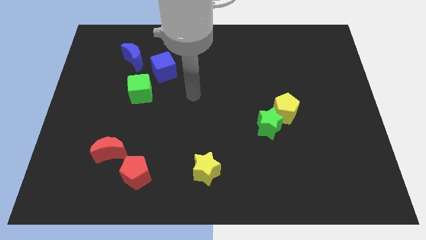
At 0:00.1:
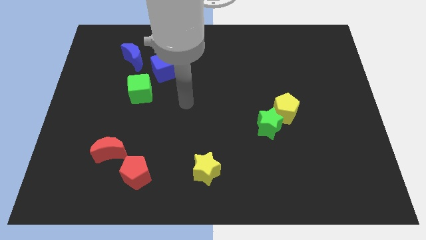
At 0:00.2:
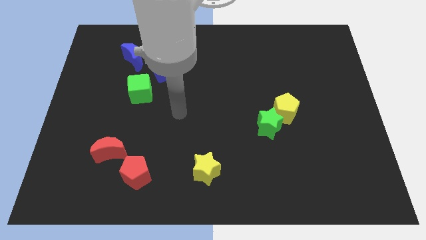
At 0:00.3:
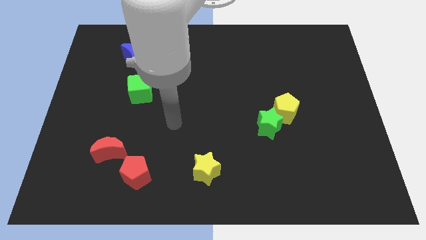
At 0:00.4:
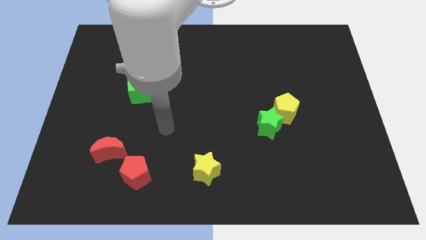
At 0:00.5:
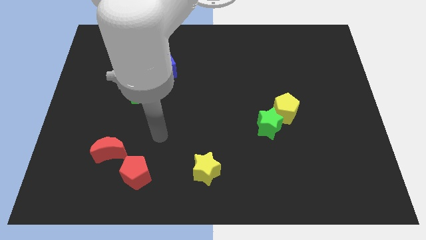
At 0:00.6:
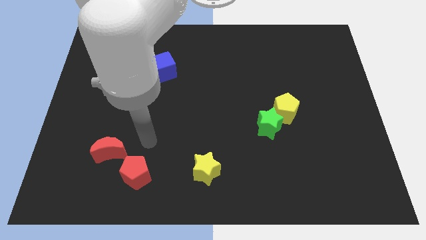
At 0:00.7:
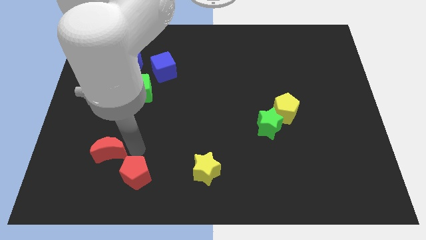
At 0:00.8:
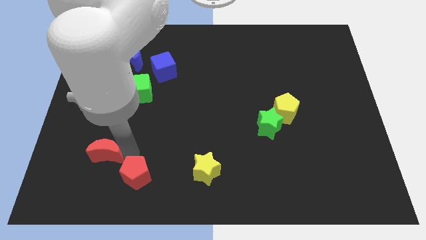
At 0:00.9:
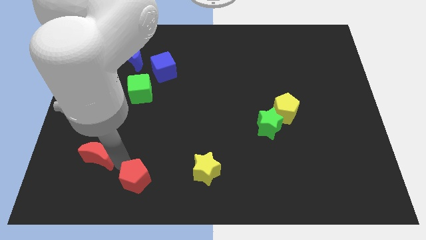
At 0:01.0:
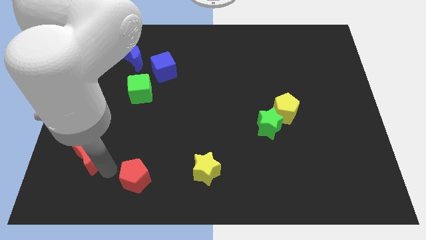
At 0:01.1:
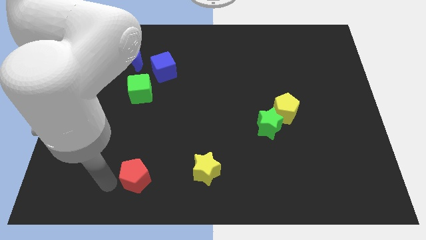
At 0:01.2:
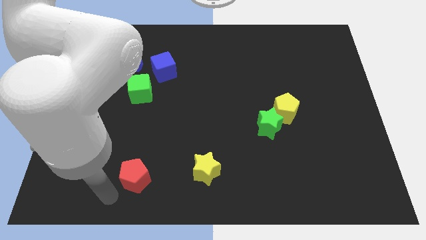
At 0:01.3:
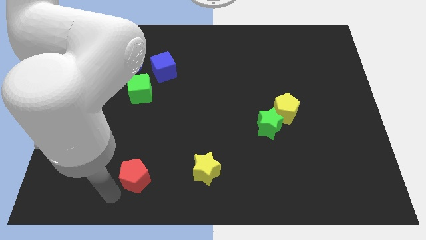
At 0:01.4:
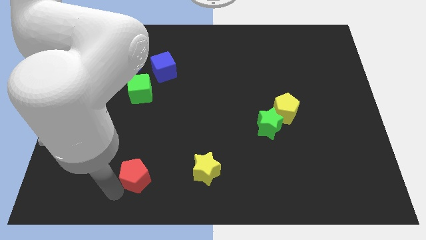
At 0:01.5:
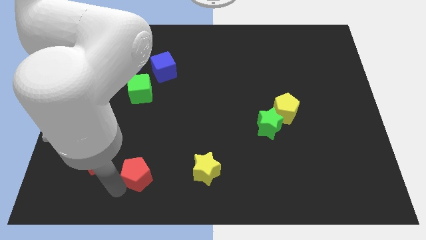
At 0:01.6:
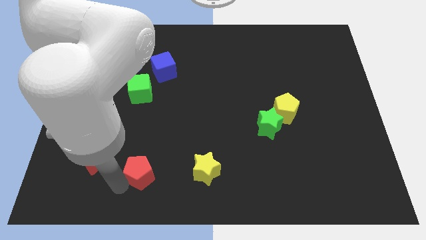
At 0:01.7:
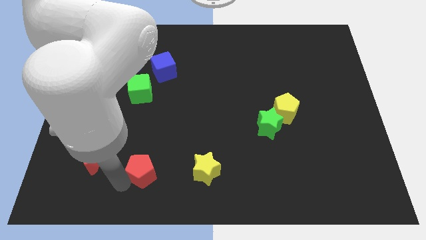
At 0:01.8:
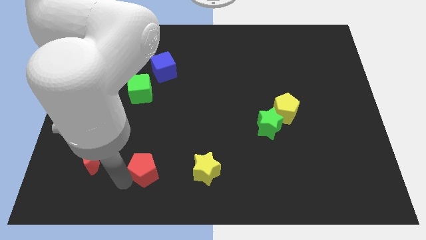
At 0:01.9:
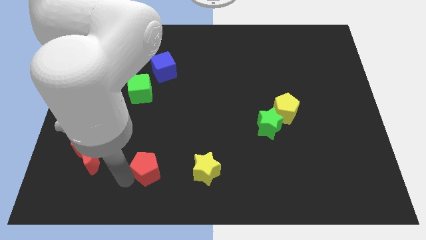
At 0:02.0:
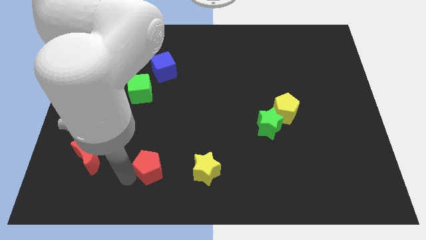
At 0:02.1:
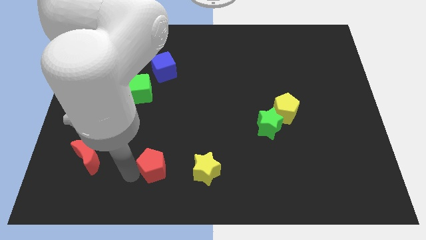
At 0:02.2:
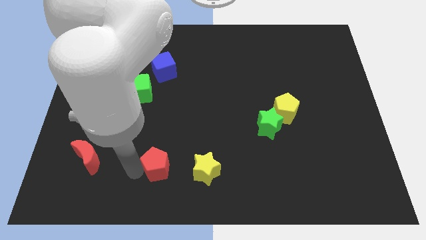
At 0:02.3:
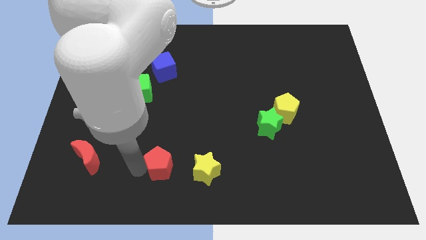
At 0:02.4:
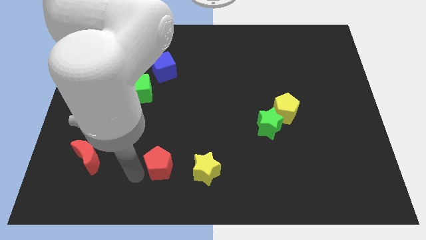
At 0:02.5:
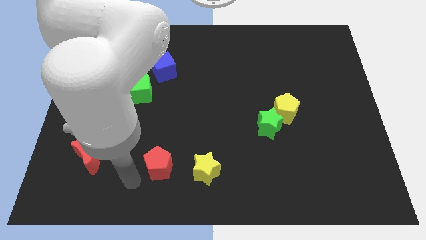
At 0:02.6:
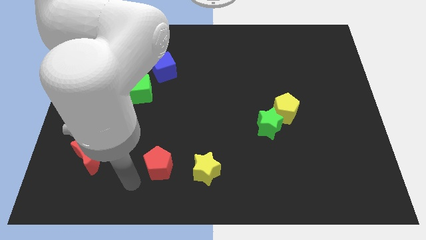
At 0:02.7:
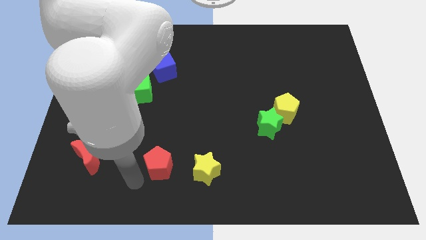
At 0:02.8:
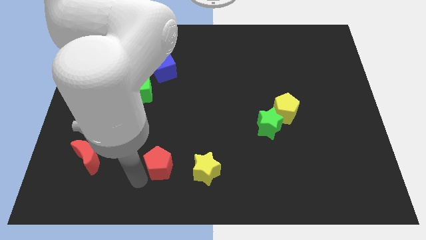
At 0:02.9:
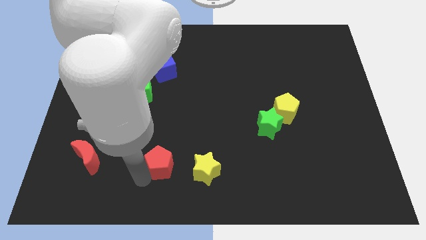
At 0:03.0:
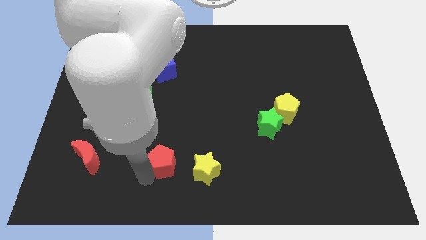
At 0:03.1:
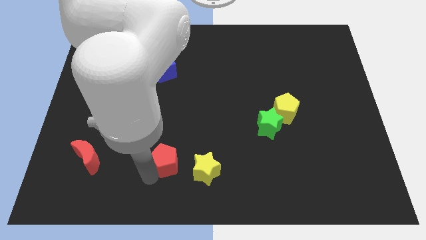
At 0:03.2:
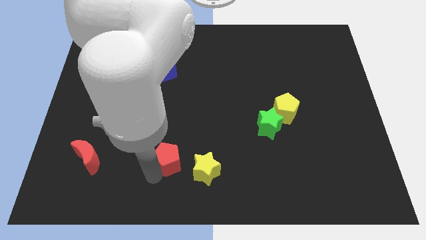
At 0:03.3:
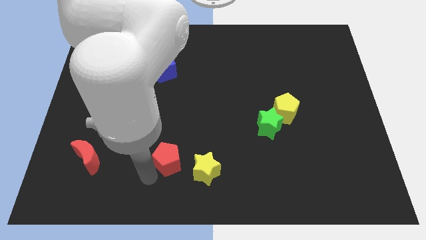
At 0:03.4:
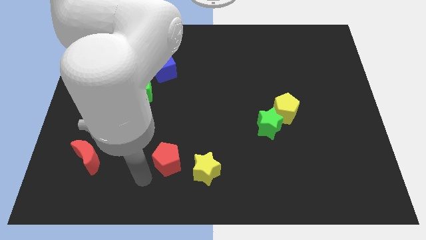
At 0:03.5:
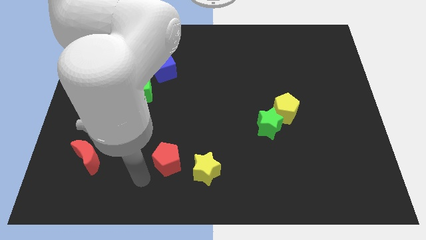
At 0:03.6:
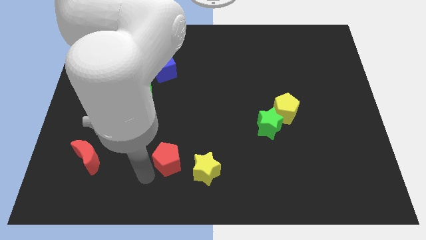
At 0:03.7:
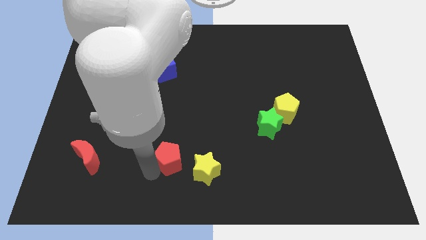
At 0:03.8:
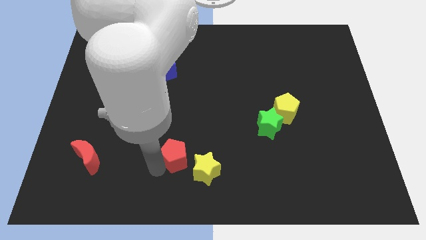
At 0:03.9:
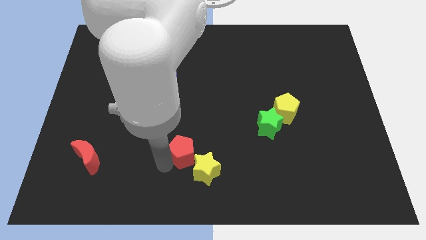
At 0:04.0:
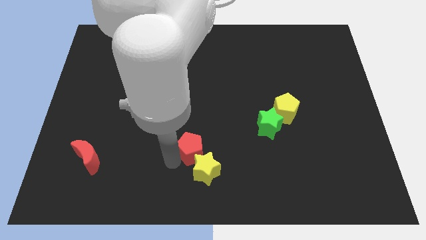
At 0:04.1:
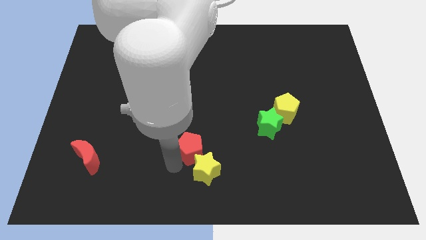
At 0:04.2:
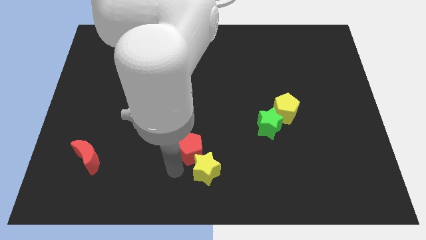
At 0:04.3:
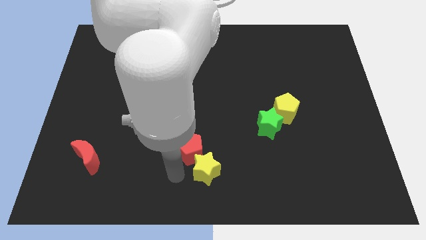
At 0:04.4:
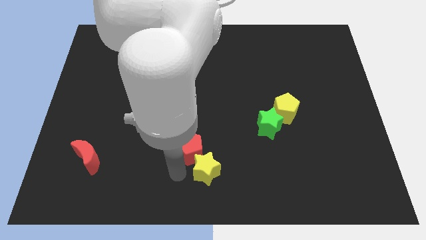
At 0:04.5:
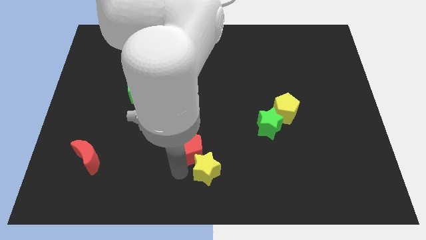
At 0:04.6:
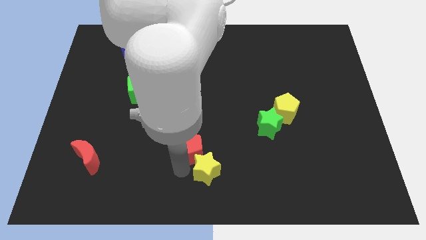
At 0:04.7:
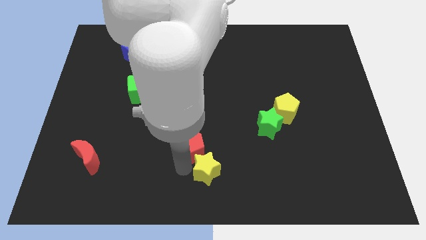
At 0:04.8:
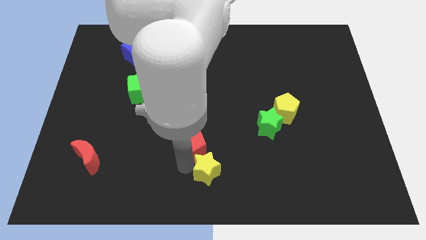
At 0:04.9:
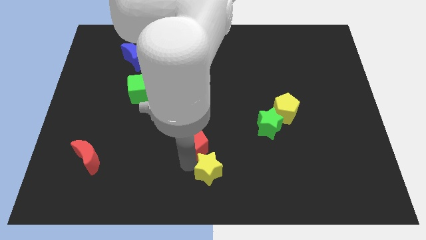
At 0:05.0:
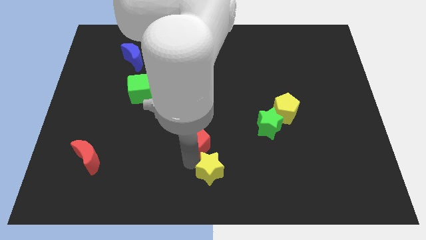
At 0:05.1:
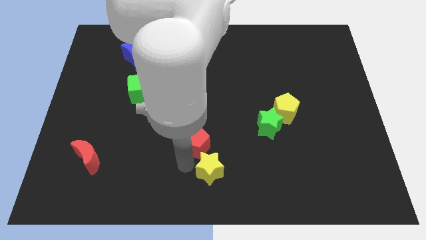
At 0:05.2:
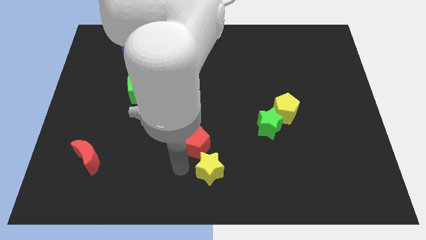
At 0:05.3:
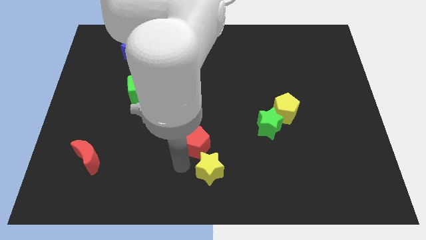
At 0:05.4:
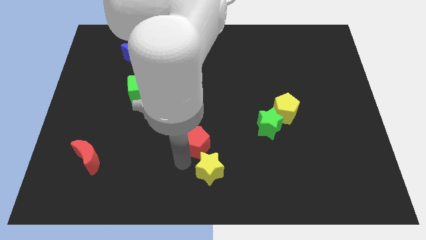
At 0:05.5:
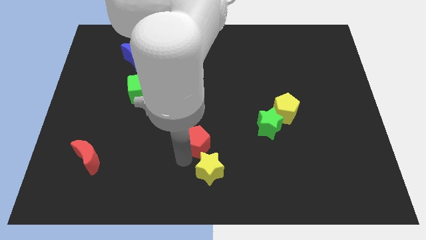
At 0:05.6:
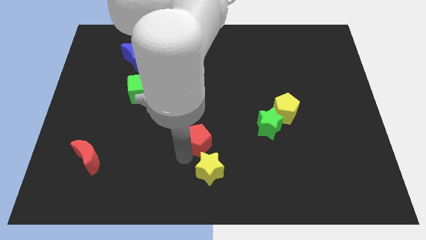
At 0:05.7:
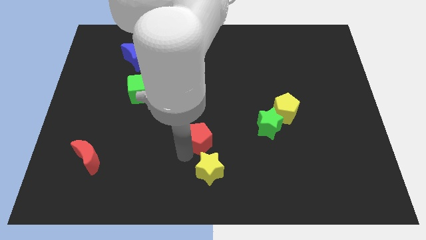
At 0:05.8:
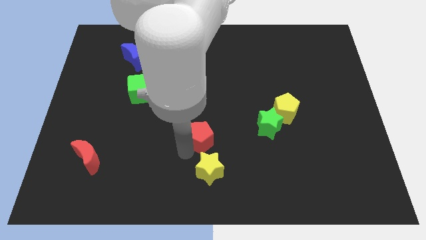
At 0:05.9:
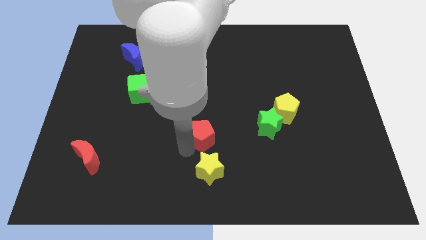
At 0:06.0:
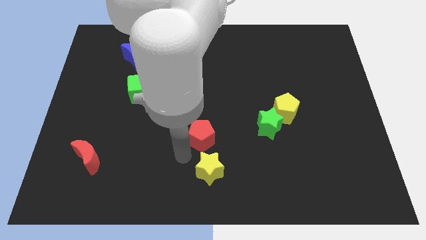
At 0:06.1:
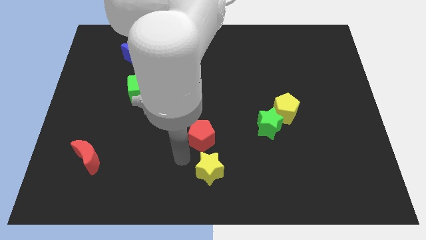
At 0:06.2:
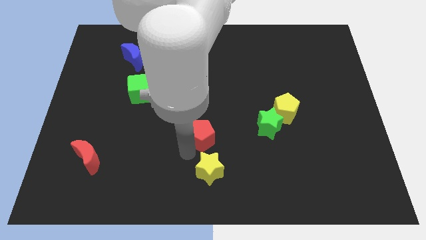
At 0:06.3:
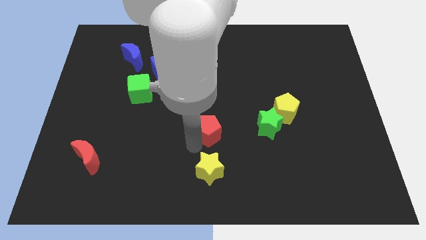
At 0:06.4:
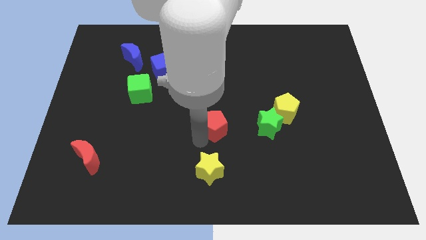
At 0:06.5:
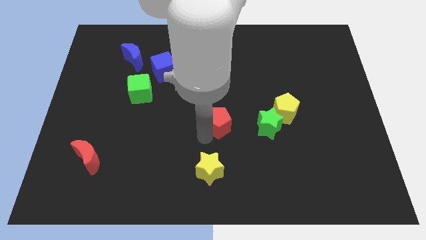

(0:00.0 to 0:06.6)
push the red pentagon diagonally upwards and to the right

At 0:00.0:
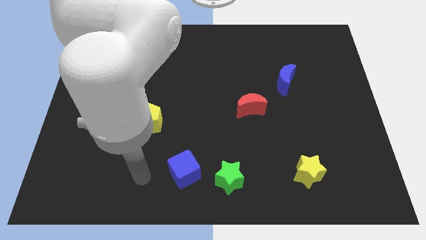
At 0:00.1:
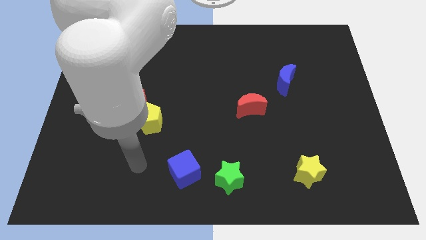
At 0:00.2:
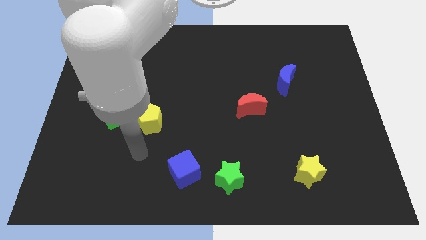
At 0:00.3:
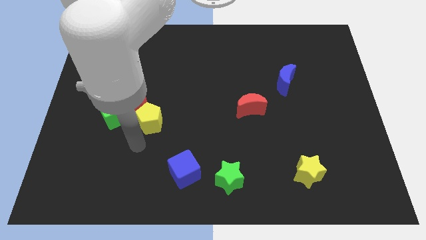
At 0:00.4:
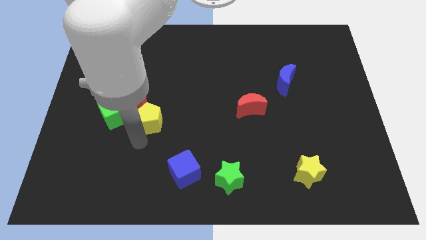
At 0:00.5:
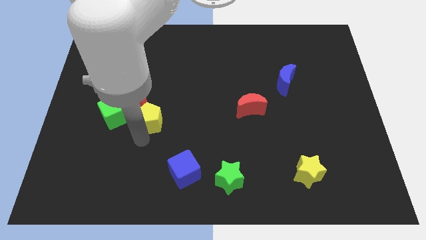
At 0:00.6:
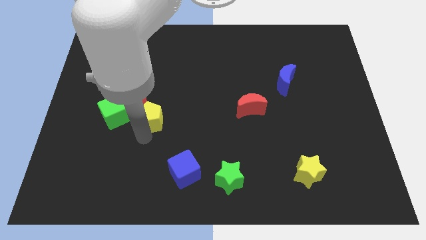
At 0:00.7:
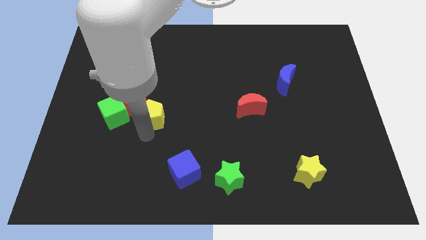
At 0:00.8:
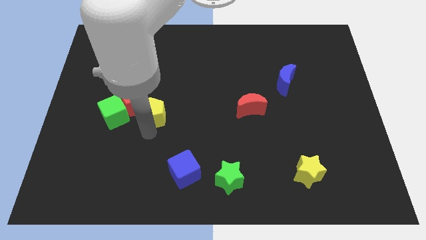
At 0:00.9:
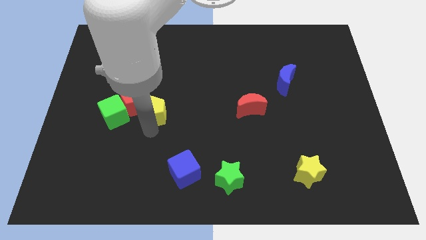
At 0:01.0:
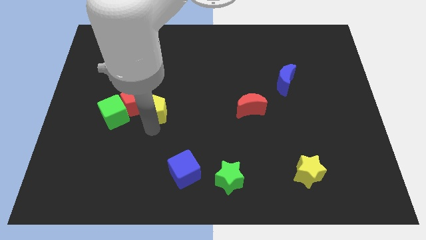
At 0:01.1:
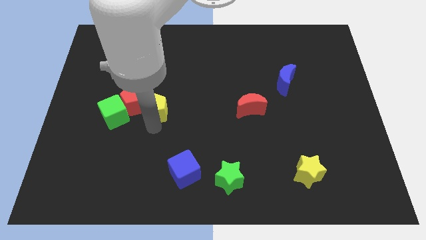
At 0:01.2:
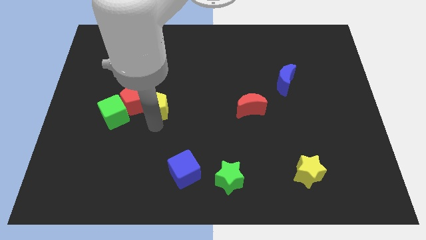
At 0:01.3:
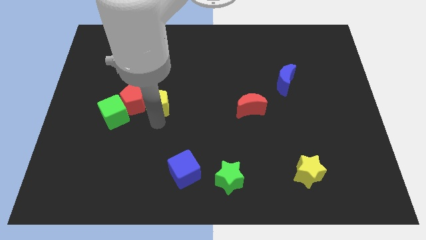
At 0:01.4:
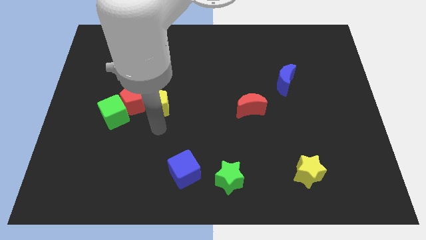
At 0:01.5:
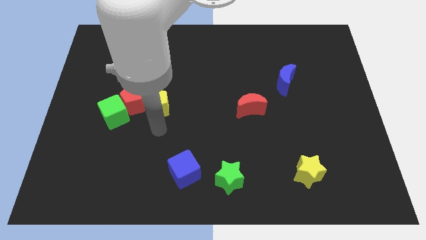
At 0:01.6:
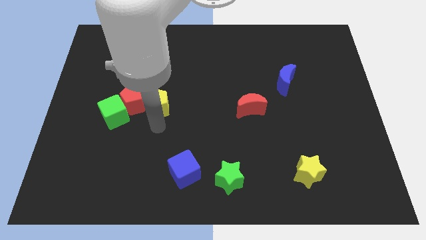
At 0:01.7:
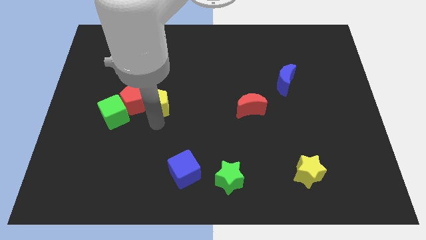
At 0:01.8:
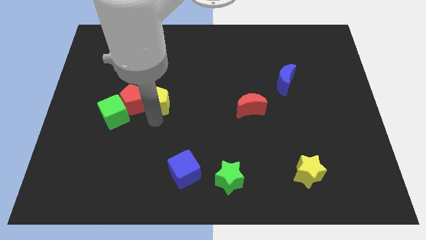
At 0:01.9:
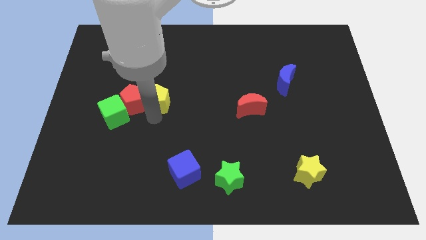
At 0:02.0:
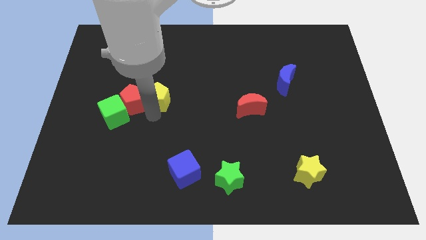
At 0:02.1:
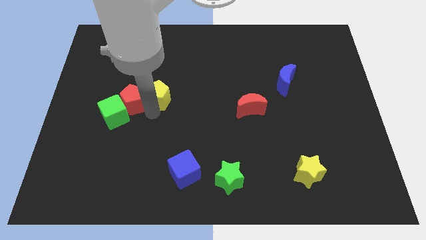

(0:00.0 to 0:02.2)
push the yellow pentagon up a little
